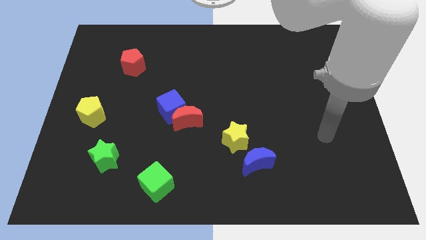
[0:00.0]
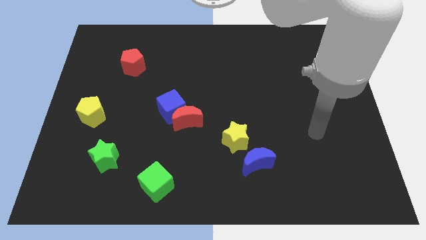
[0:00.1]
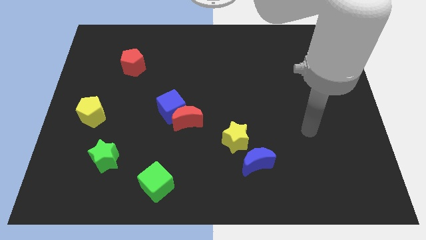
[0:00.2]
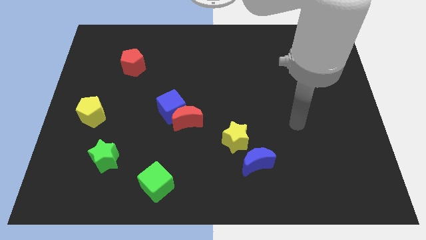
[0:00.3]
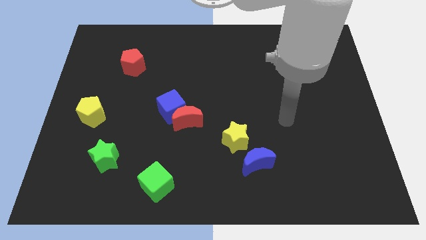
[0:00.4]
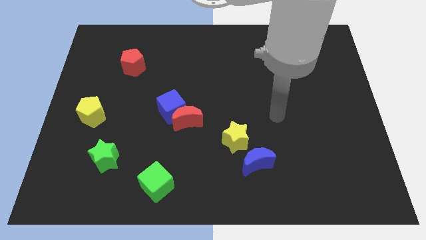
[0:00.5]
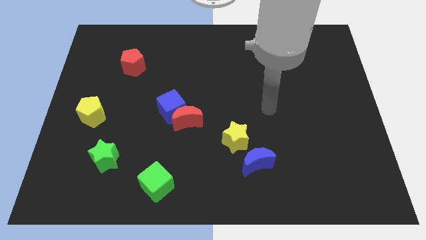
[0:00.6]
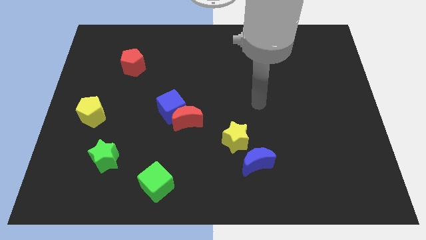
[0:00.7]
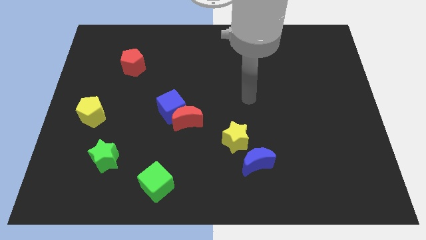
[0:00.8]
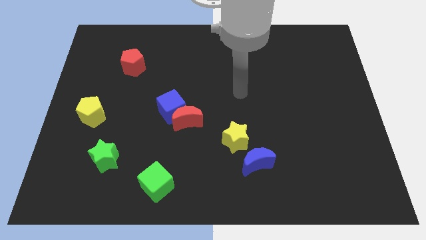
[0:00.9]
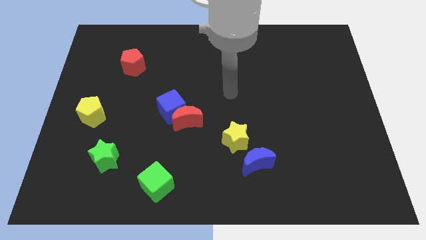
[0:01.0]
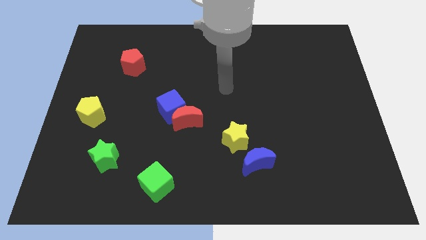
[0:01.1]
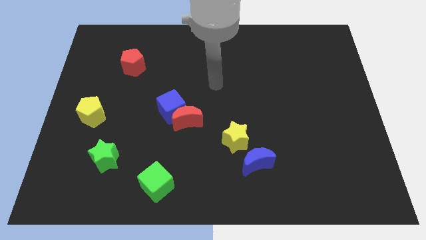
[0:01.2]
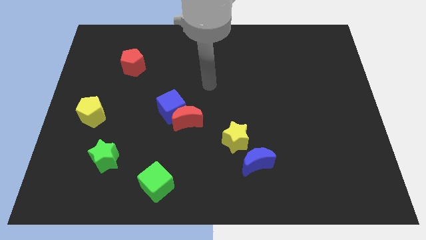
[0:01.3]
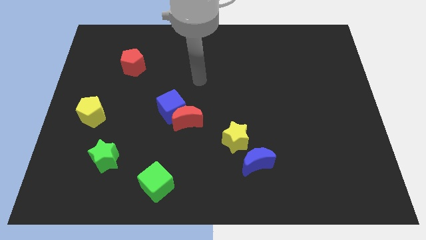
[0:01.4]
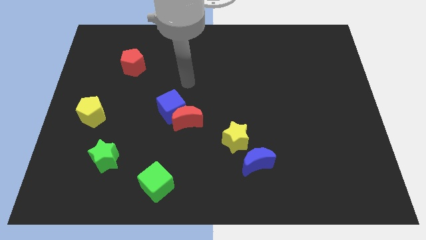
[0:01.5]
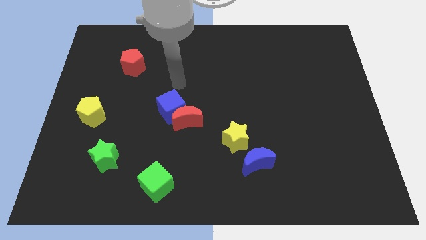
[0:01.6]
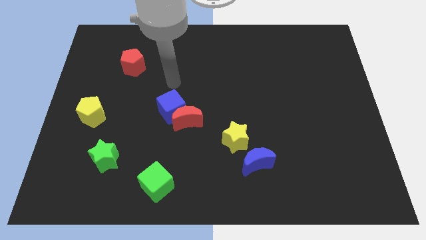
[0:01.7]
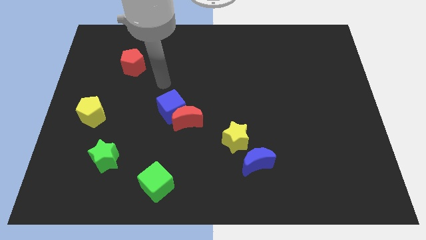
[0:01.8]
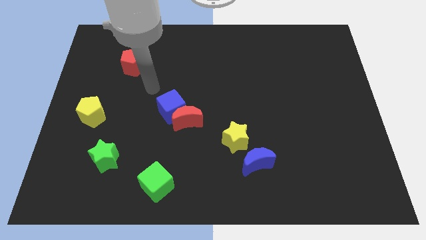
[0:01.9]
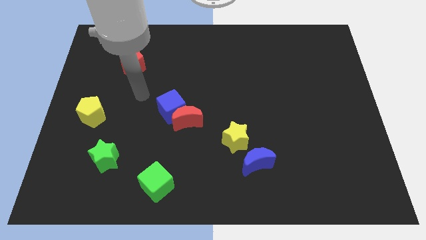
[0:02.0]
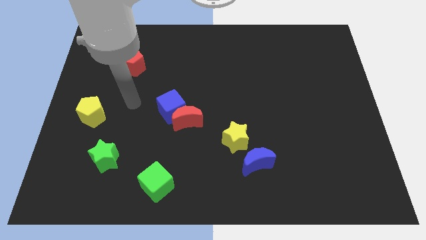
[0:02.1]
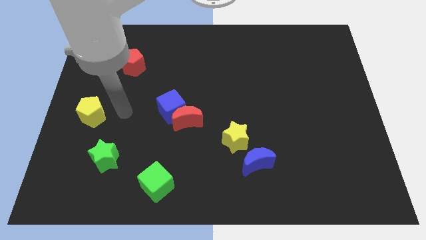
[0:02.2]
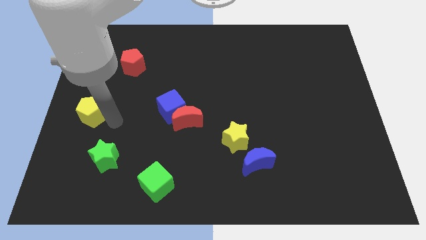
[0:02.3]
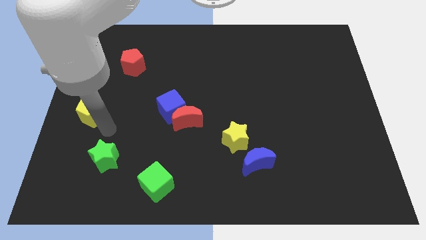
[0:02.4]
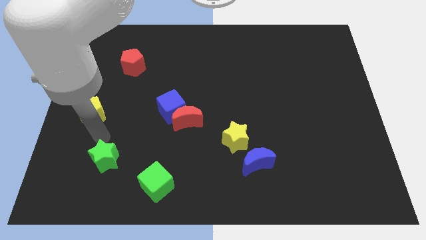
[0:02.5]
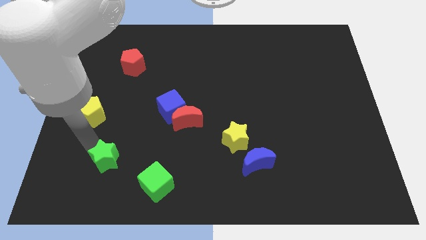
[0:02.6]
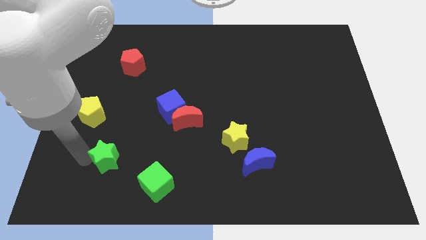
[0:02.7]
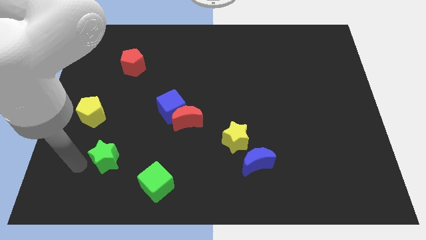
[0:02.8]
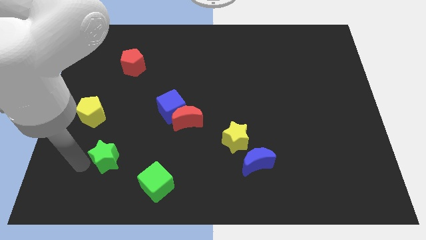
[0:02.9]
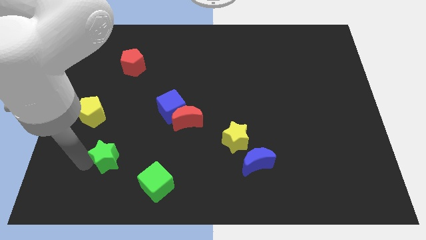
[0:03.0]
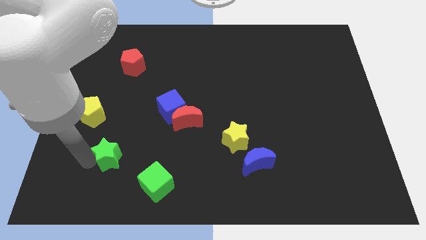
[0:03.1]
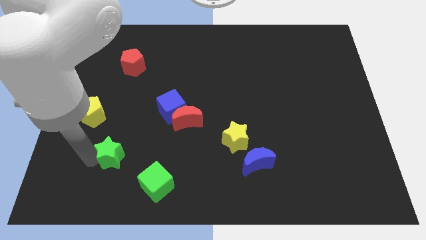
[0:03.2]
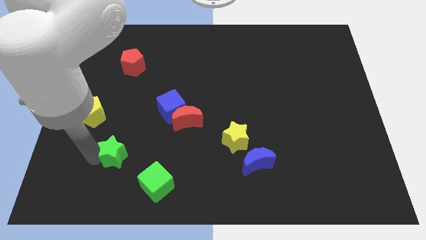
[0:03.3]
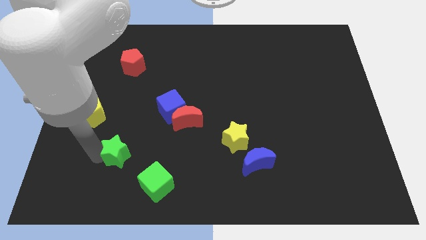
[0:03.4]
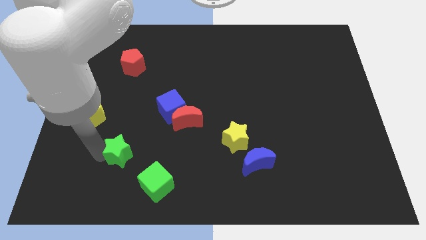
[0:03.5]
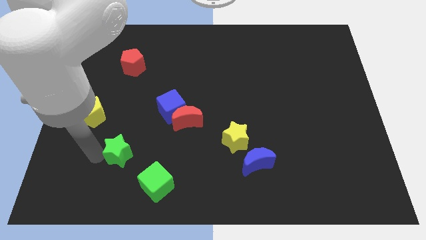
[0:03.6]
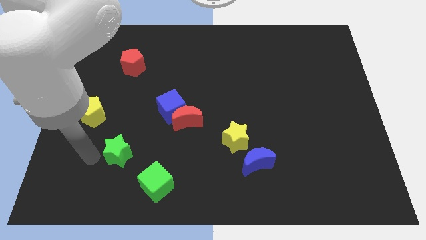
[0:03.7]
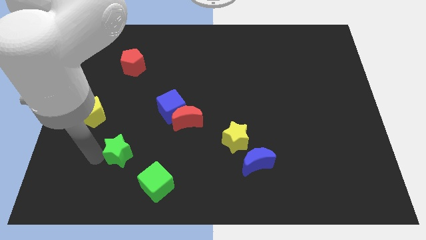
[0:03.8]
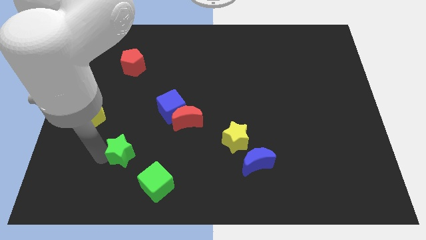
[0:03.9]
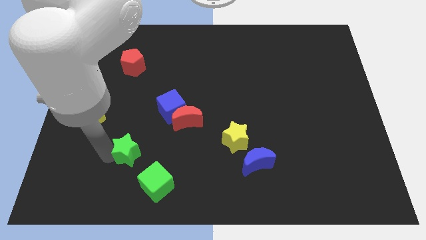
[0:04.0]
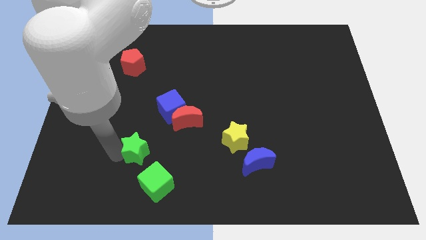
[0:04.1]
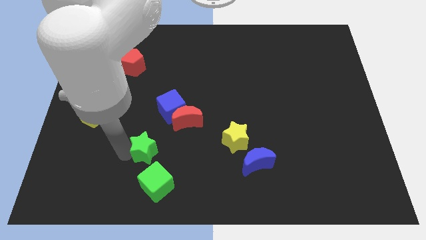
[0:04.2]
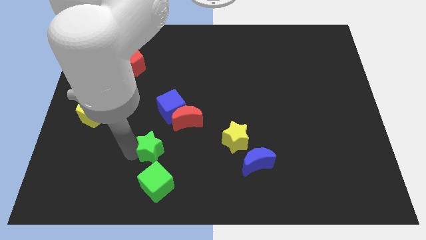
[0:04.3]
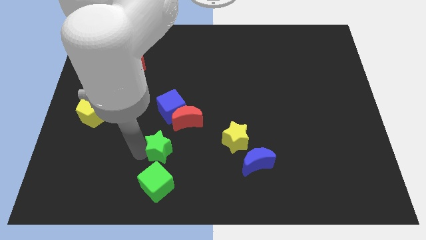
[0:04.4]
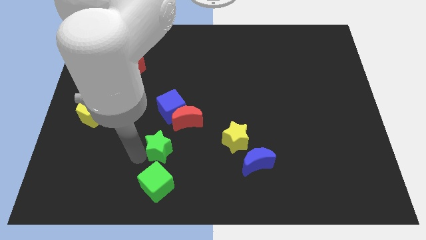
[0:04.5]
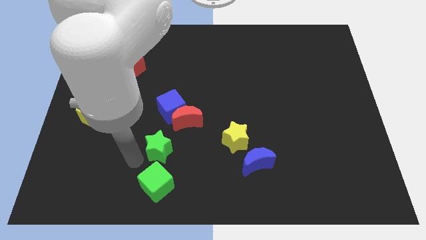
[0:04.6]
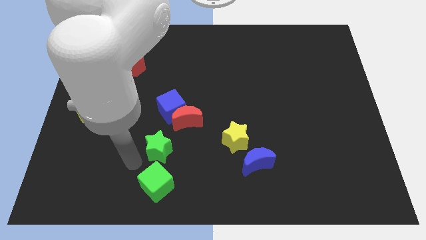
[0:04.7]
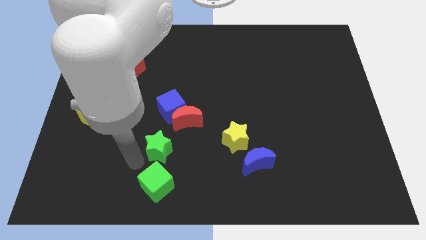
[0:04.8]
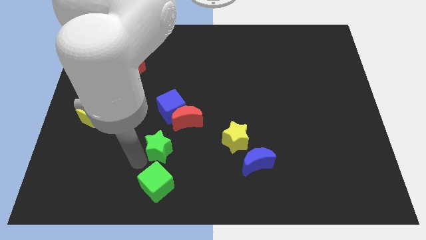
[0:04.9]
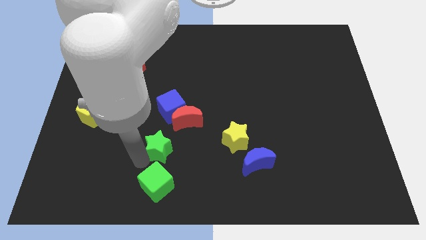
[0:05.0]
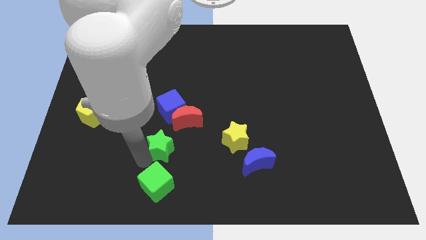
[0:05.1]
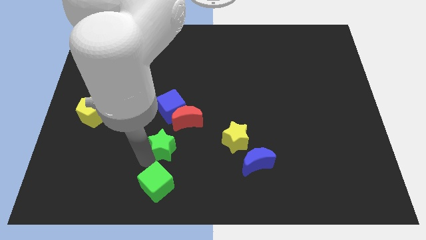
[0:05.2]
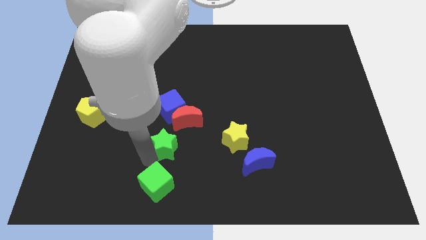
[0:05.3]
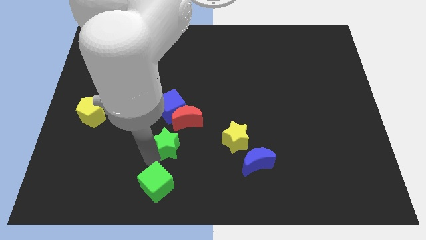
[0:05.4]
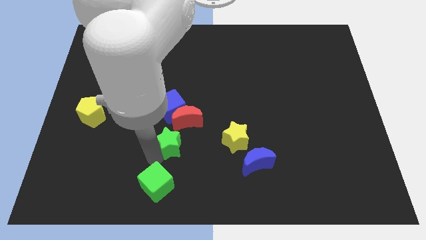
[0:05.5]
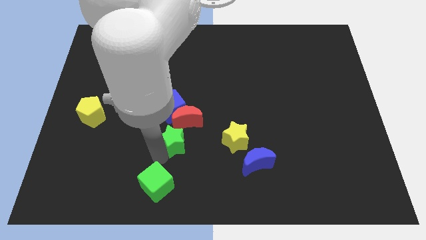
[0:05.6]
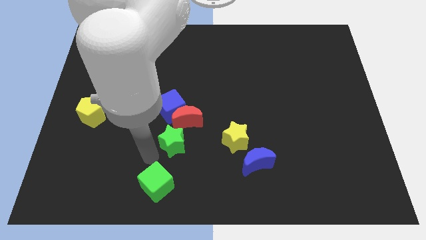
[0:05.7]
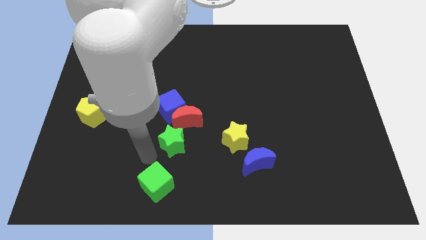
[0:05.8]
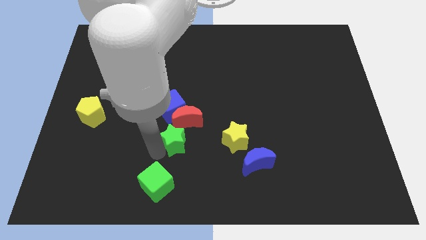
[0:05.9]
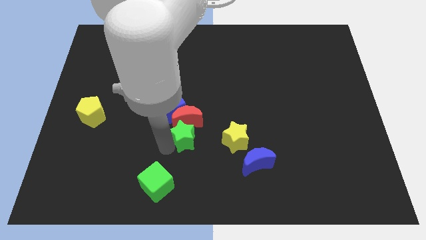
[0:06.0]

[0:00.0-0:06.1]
slide the green star to the center of the board
